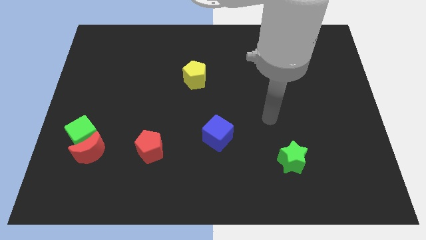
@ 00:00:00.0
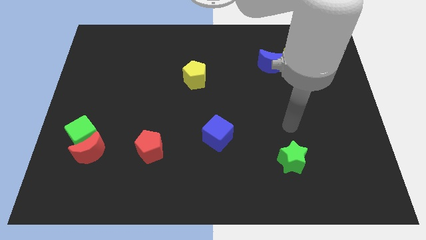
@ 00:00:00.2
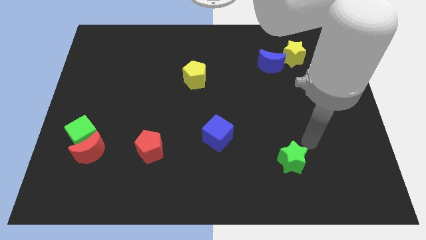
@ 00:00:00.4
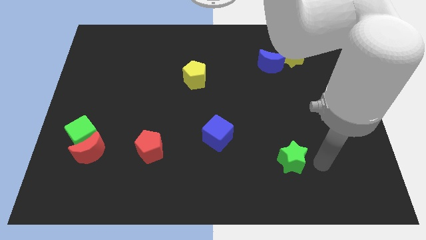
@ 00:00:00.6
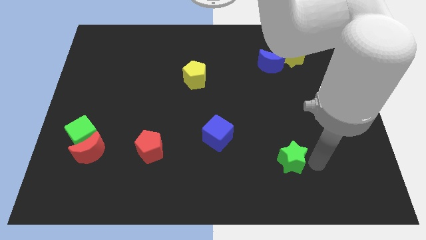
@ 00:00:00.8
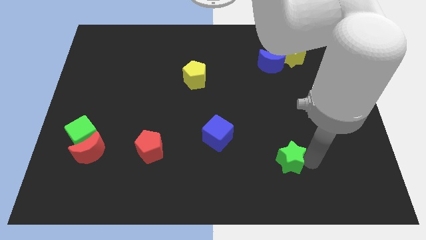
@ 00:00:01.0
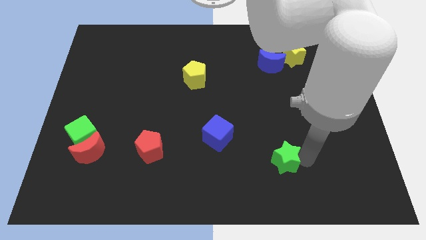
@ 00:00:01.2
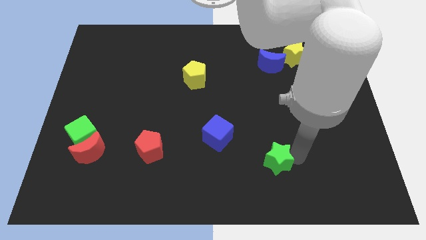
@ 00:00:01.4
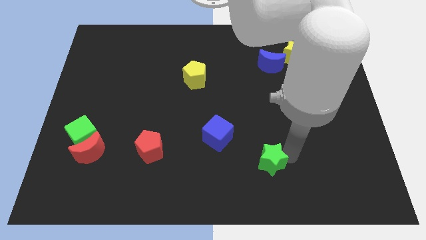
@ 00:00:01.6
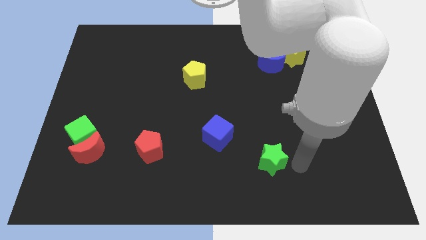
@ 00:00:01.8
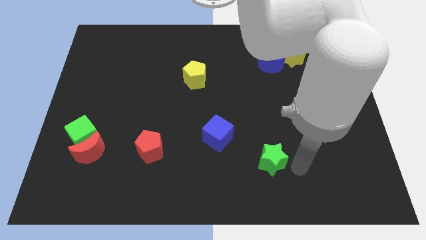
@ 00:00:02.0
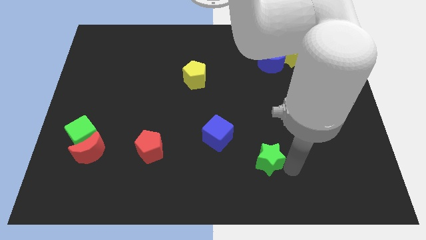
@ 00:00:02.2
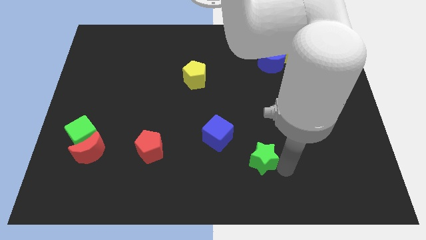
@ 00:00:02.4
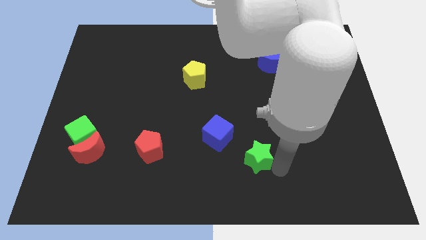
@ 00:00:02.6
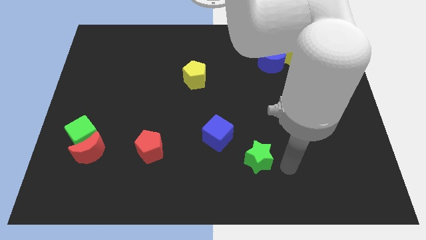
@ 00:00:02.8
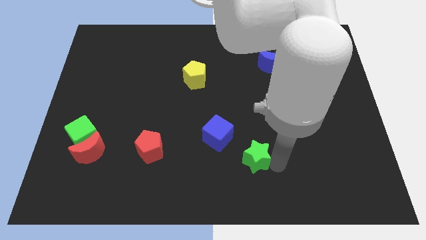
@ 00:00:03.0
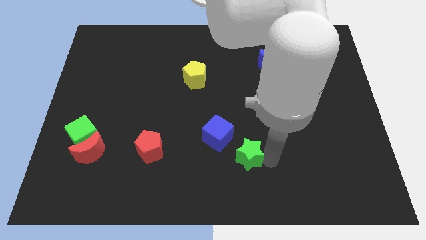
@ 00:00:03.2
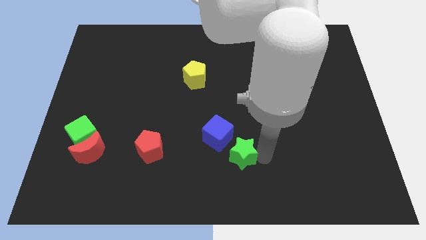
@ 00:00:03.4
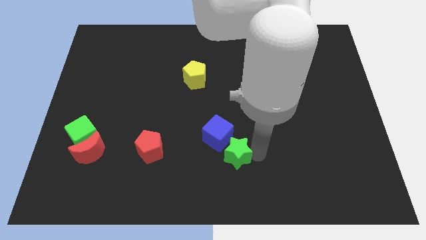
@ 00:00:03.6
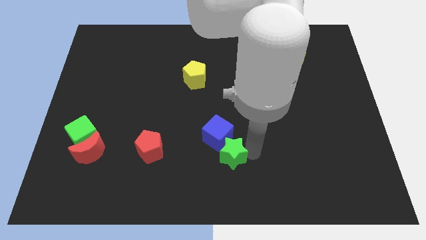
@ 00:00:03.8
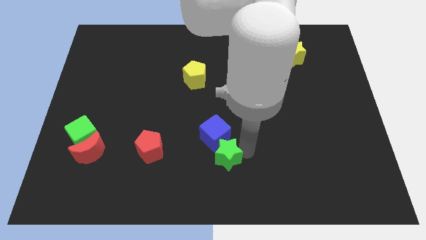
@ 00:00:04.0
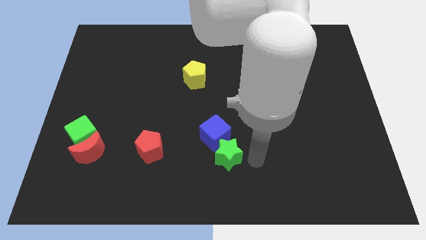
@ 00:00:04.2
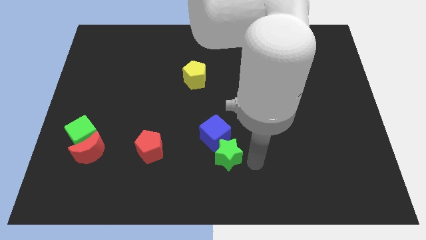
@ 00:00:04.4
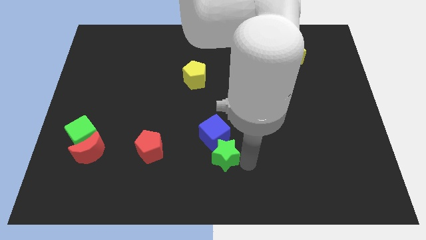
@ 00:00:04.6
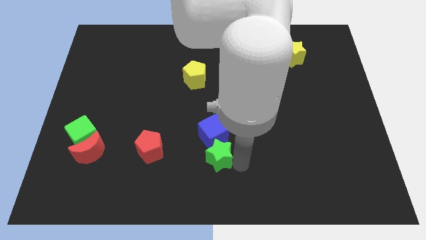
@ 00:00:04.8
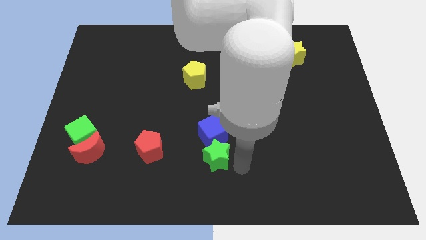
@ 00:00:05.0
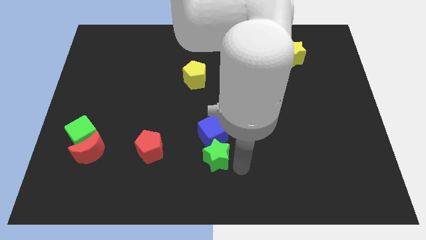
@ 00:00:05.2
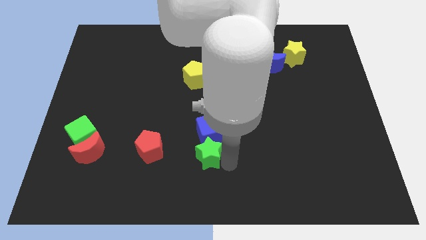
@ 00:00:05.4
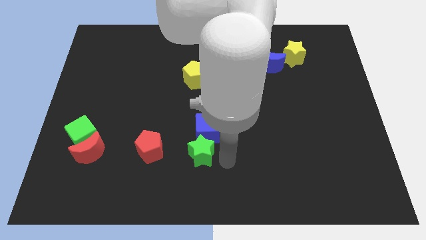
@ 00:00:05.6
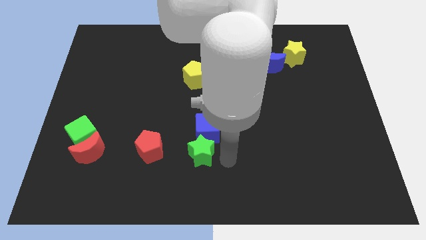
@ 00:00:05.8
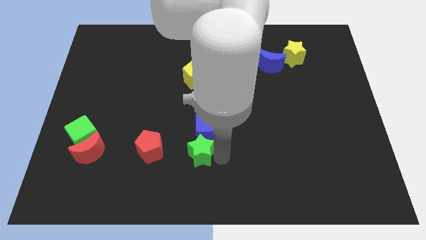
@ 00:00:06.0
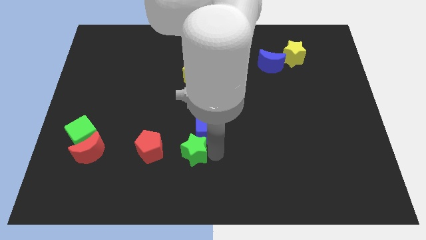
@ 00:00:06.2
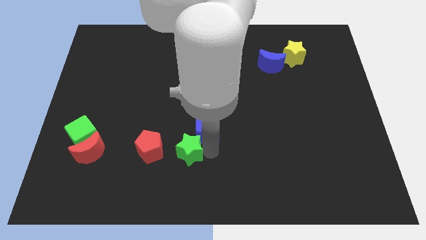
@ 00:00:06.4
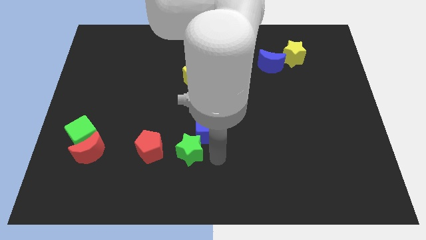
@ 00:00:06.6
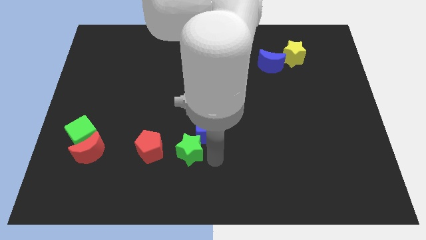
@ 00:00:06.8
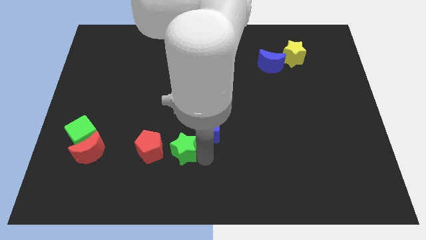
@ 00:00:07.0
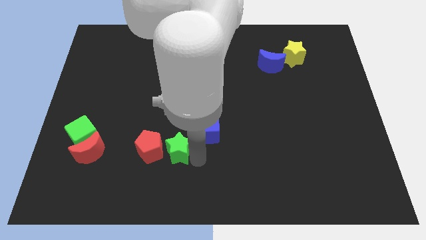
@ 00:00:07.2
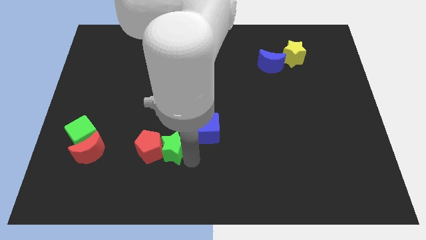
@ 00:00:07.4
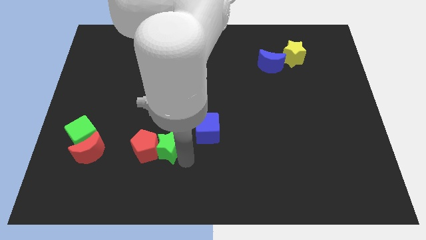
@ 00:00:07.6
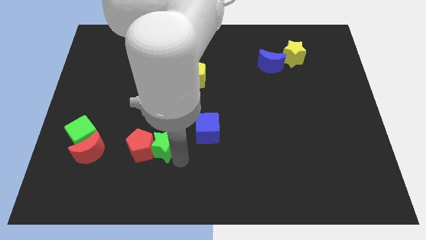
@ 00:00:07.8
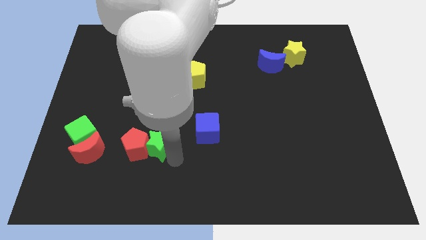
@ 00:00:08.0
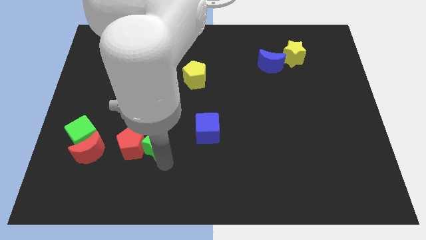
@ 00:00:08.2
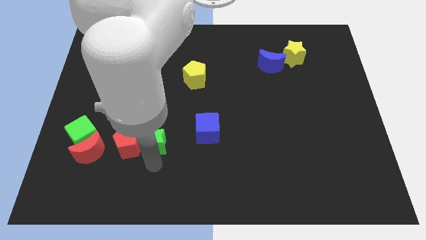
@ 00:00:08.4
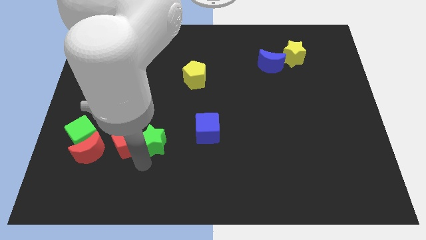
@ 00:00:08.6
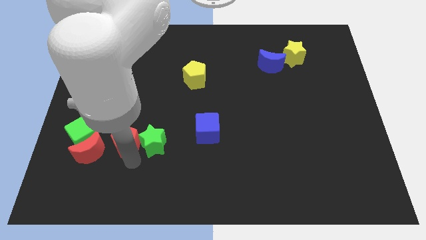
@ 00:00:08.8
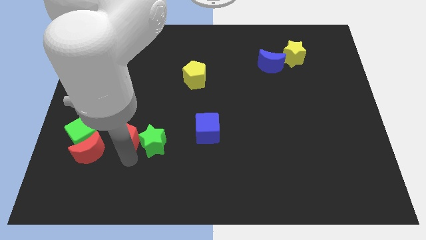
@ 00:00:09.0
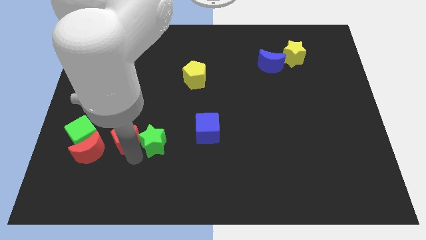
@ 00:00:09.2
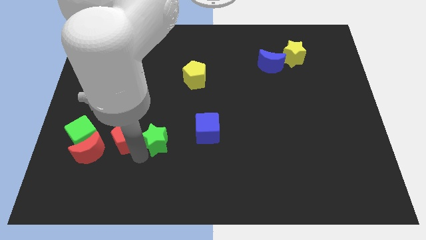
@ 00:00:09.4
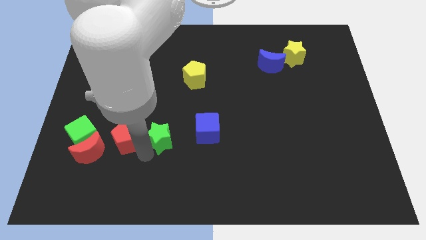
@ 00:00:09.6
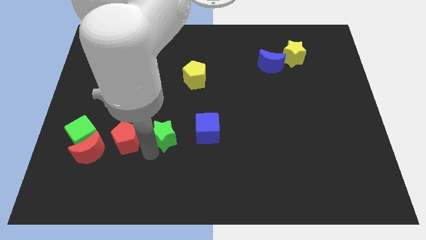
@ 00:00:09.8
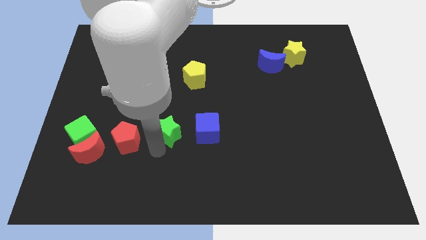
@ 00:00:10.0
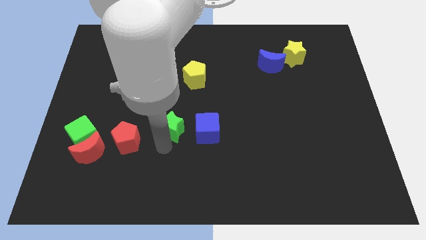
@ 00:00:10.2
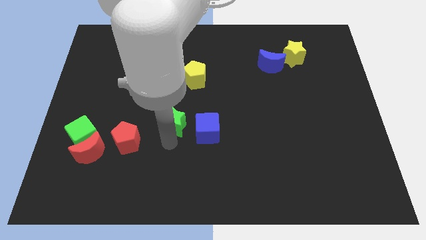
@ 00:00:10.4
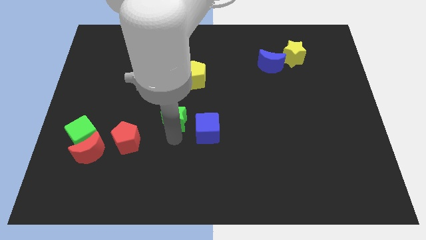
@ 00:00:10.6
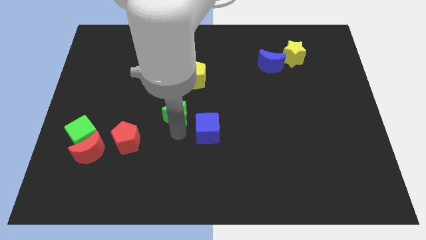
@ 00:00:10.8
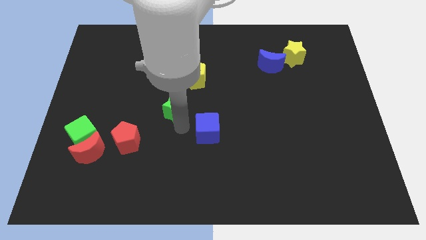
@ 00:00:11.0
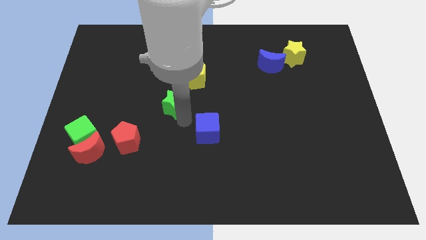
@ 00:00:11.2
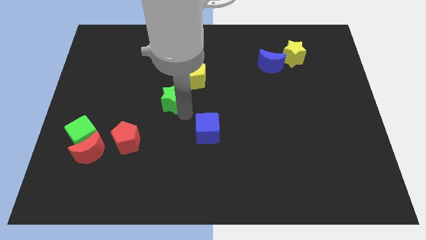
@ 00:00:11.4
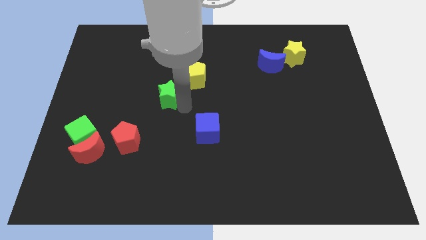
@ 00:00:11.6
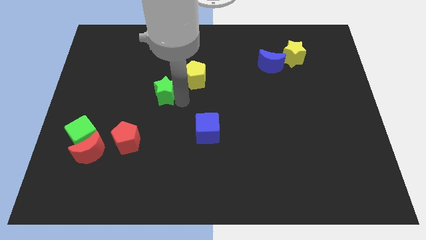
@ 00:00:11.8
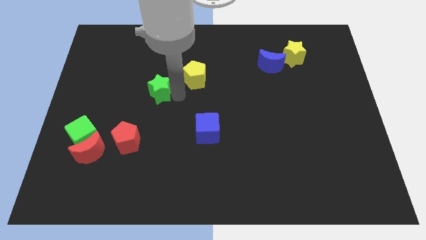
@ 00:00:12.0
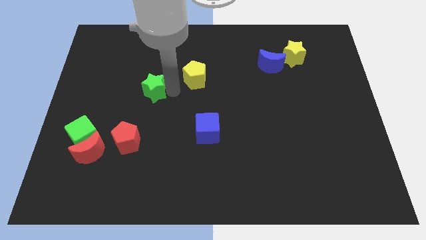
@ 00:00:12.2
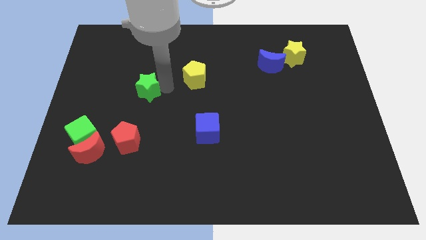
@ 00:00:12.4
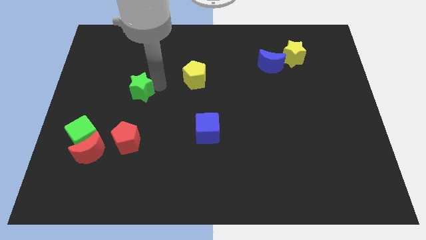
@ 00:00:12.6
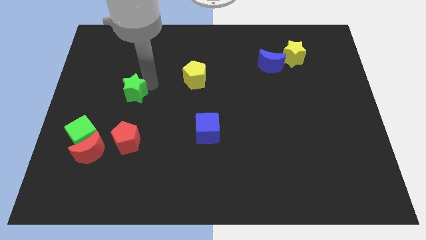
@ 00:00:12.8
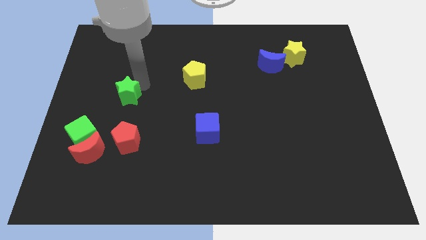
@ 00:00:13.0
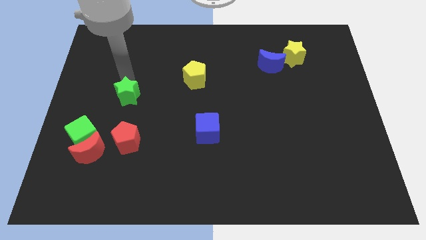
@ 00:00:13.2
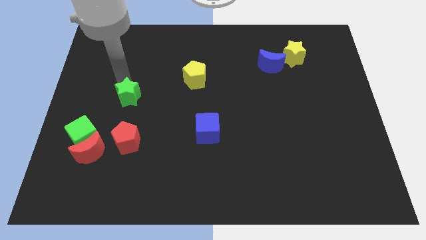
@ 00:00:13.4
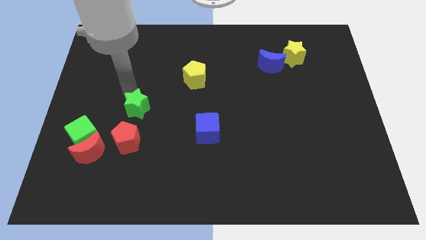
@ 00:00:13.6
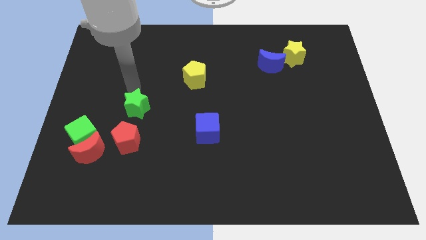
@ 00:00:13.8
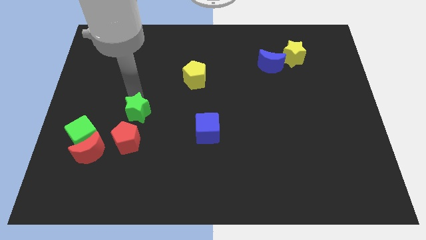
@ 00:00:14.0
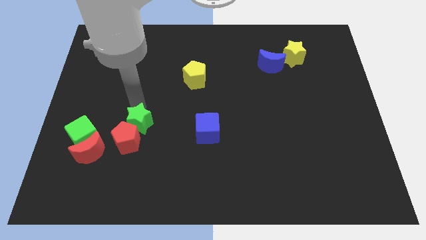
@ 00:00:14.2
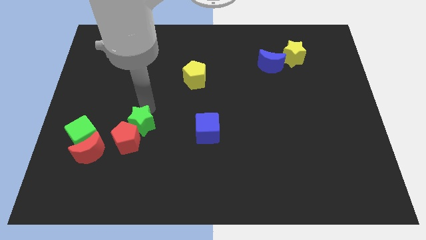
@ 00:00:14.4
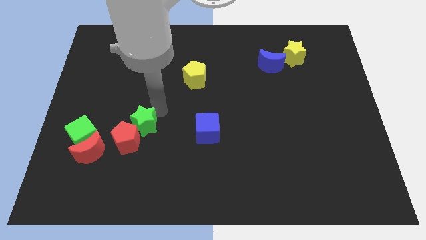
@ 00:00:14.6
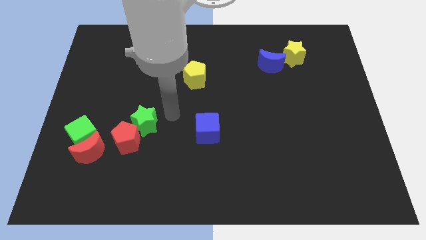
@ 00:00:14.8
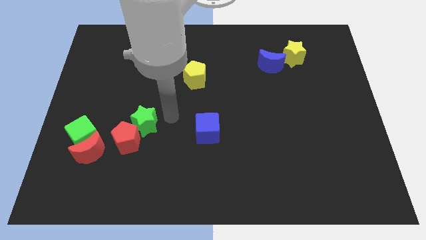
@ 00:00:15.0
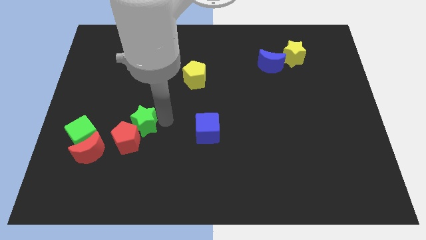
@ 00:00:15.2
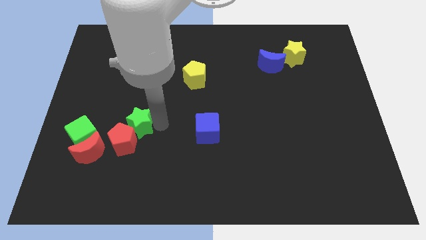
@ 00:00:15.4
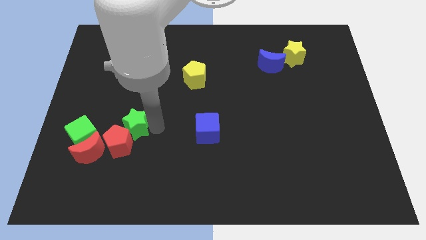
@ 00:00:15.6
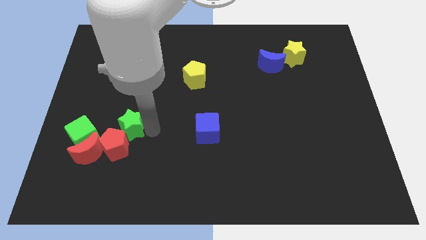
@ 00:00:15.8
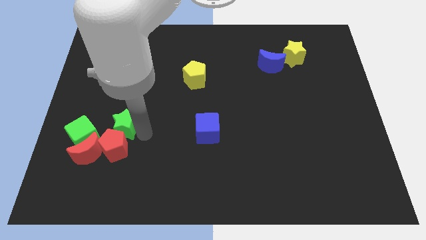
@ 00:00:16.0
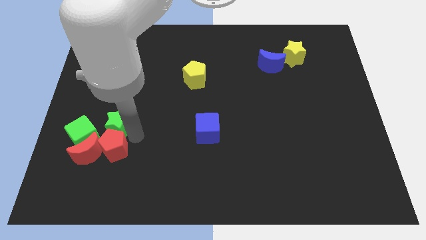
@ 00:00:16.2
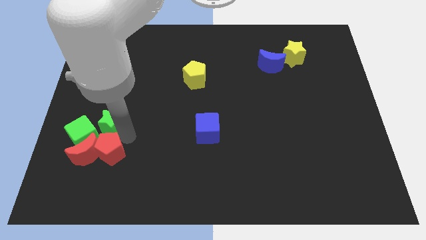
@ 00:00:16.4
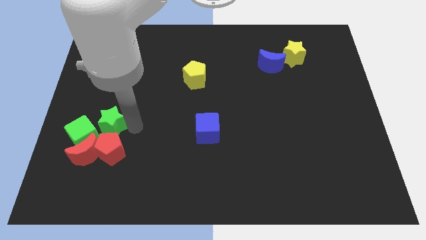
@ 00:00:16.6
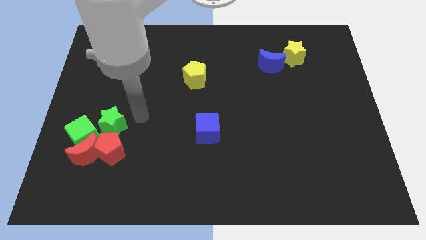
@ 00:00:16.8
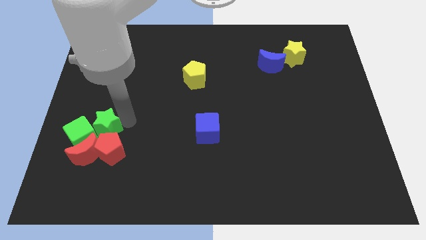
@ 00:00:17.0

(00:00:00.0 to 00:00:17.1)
move the green star next to the green cube
